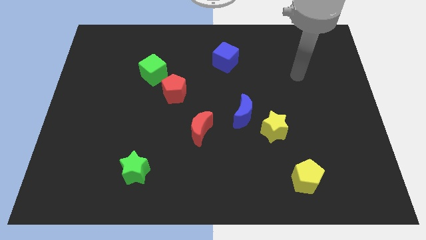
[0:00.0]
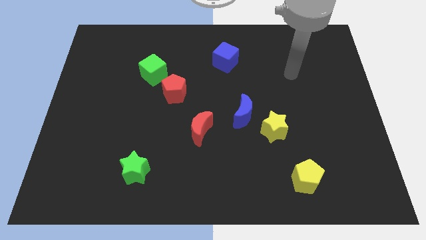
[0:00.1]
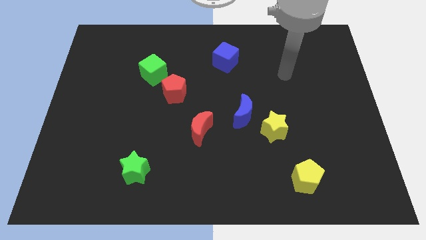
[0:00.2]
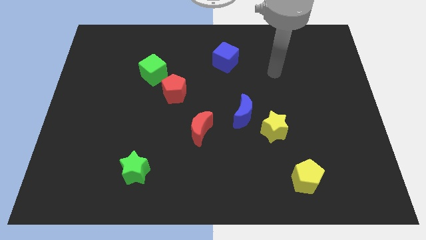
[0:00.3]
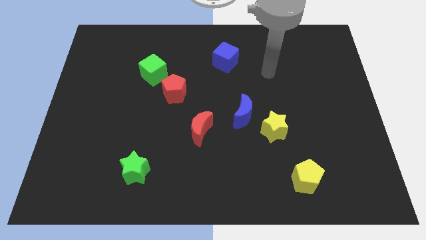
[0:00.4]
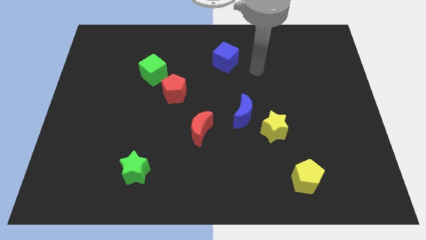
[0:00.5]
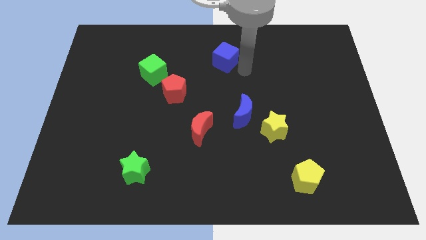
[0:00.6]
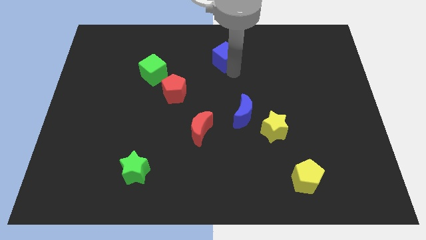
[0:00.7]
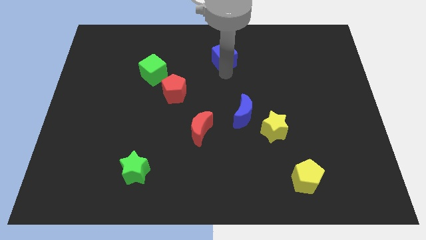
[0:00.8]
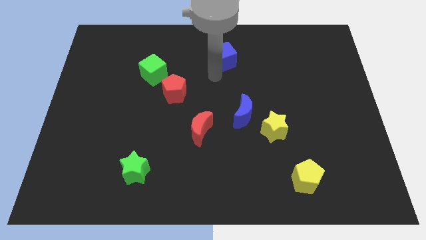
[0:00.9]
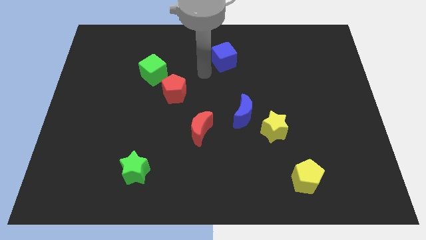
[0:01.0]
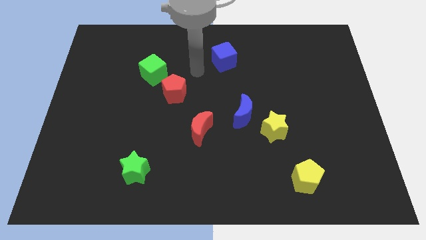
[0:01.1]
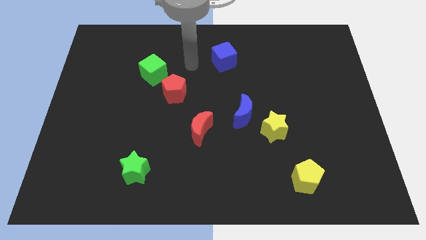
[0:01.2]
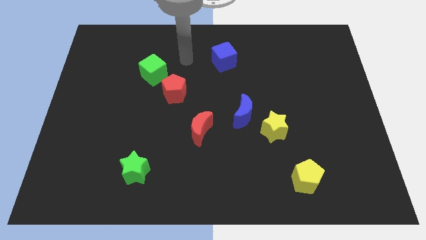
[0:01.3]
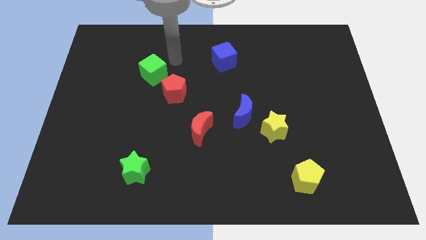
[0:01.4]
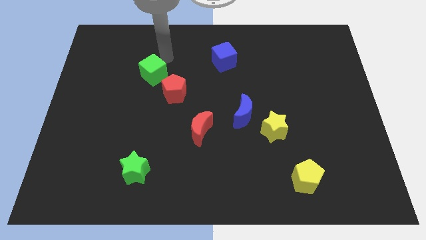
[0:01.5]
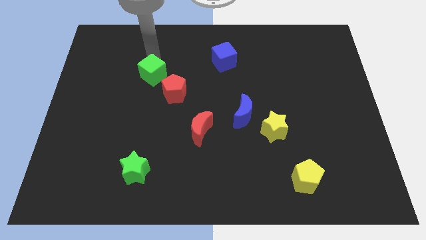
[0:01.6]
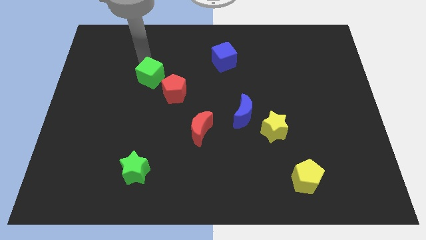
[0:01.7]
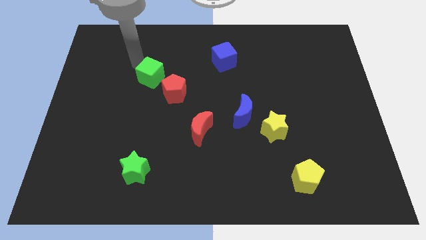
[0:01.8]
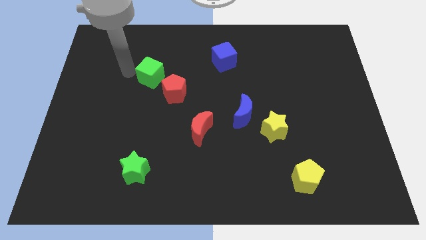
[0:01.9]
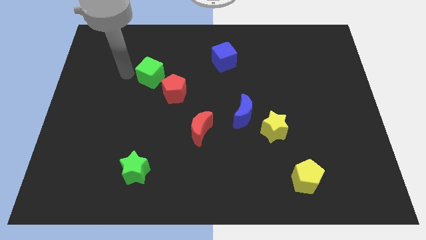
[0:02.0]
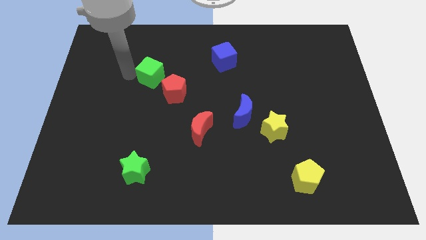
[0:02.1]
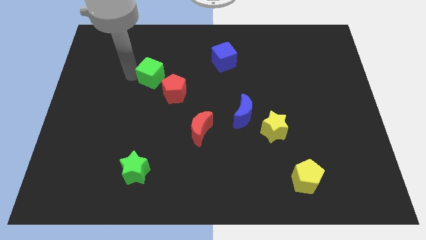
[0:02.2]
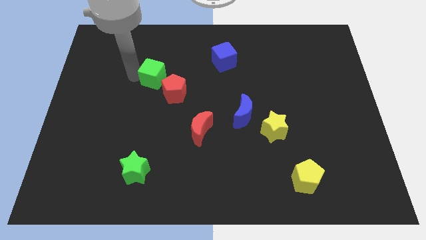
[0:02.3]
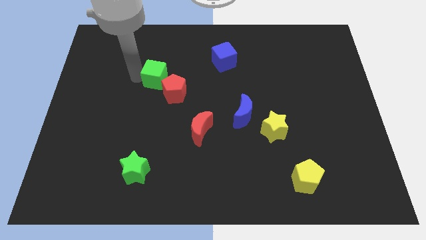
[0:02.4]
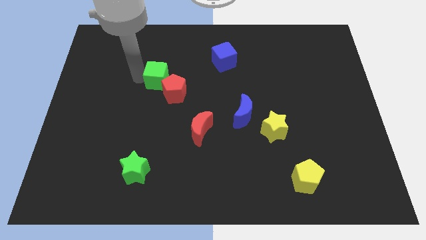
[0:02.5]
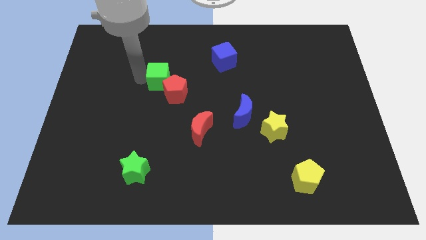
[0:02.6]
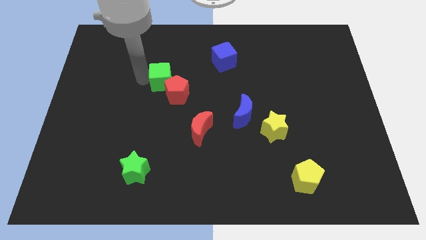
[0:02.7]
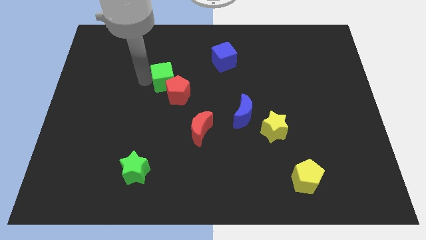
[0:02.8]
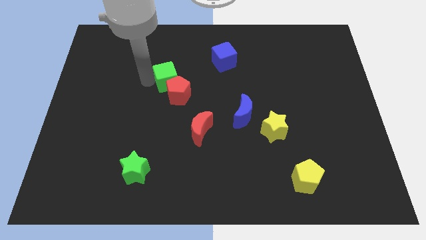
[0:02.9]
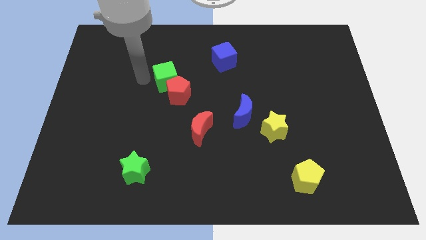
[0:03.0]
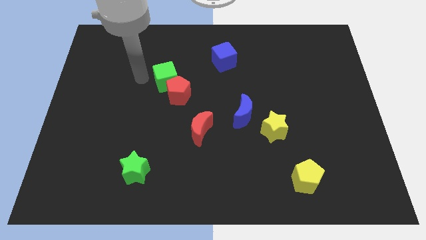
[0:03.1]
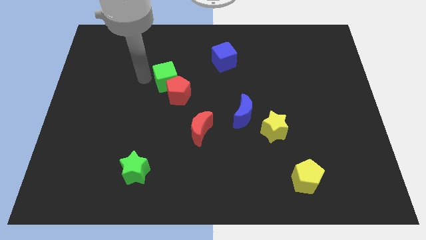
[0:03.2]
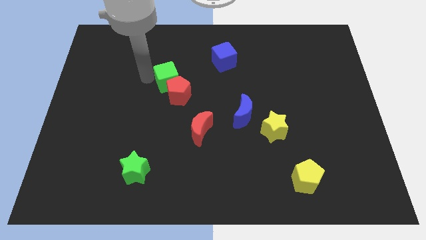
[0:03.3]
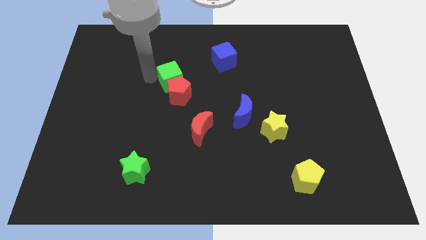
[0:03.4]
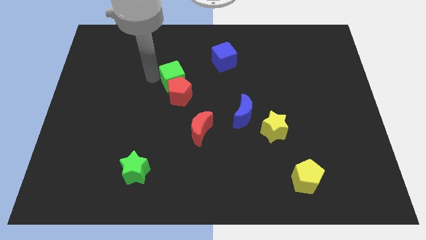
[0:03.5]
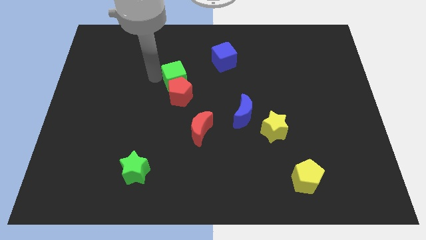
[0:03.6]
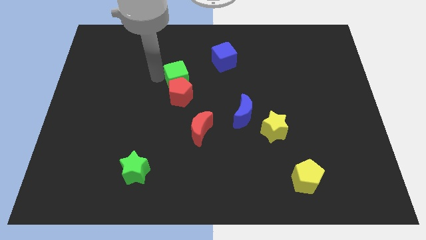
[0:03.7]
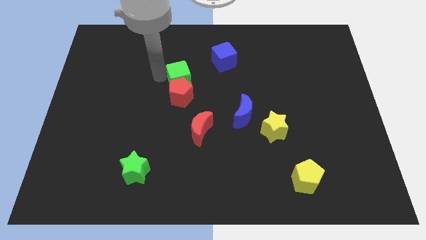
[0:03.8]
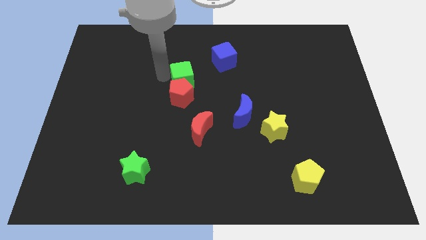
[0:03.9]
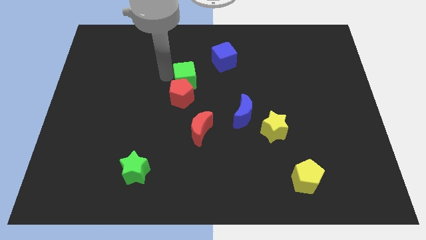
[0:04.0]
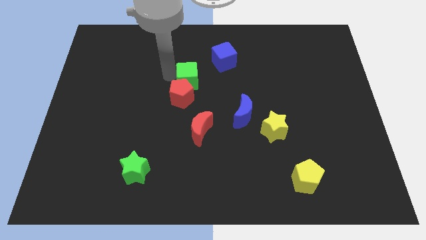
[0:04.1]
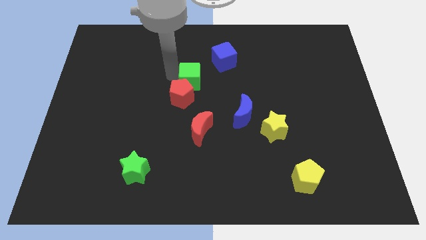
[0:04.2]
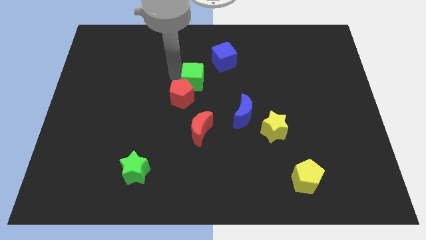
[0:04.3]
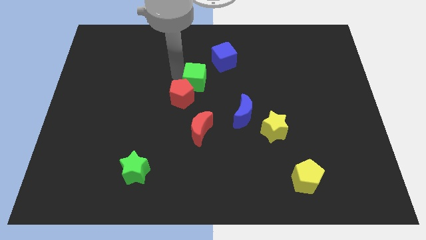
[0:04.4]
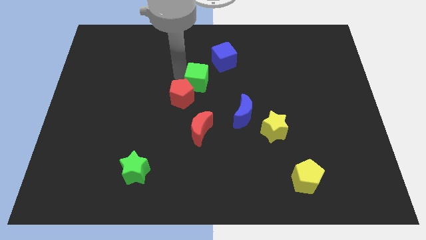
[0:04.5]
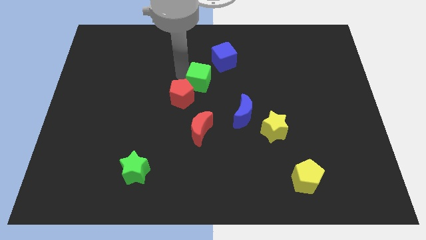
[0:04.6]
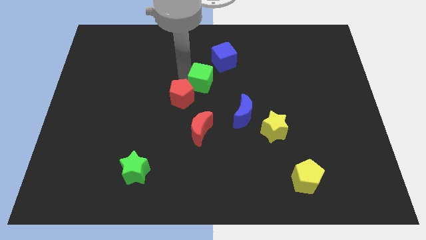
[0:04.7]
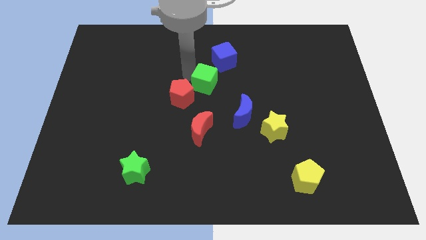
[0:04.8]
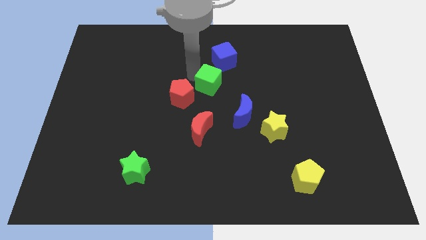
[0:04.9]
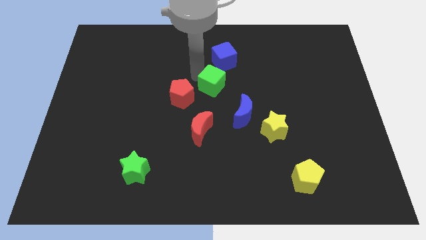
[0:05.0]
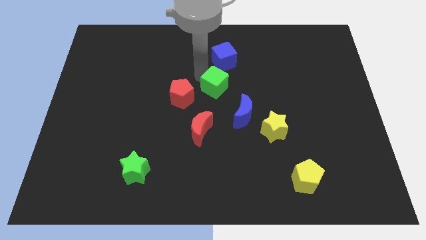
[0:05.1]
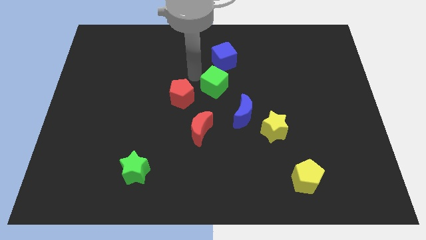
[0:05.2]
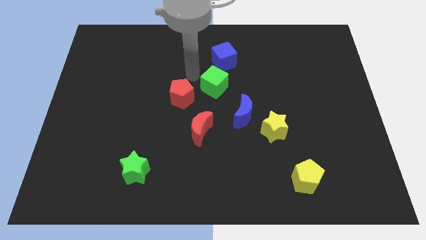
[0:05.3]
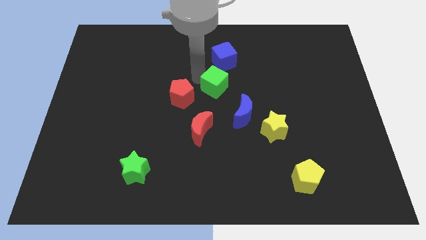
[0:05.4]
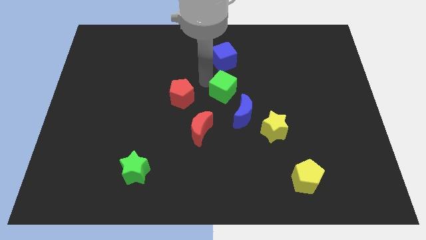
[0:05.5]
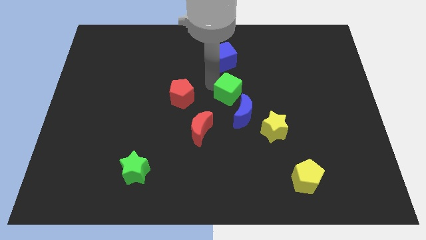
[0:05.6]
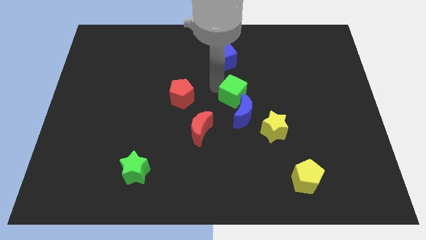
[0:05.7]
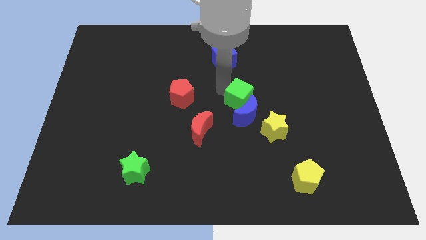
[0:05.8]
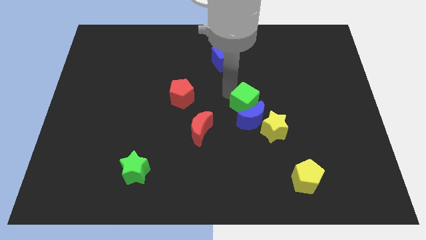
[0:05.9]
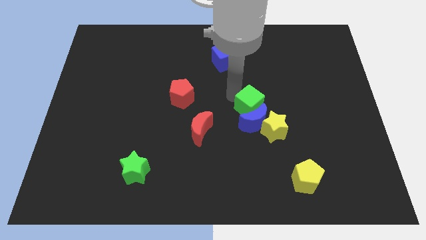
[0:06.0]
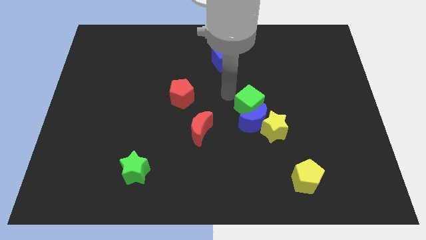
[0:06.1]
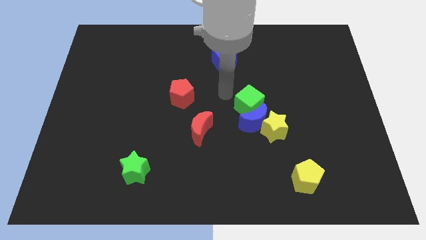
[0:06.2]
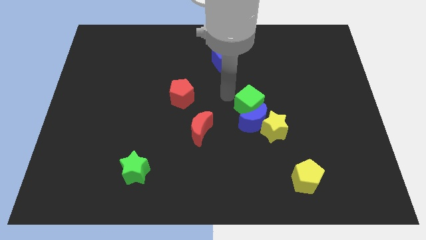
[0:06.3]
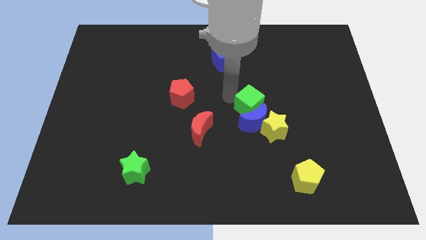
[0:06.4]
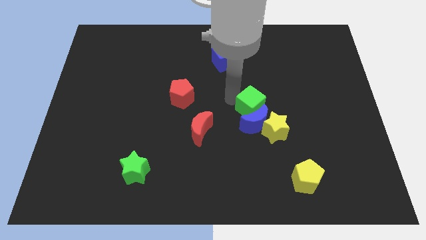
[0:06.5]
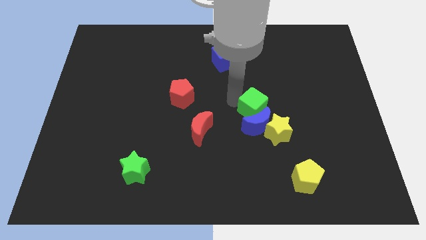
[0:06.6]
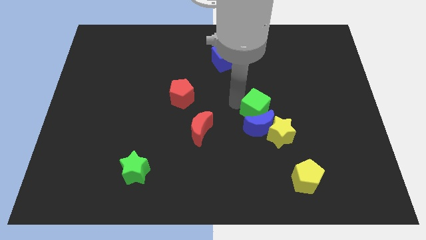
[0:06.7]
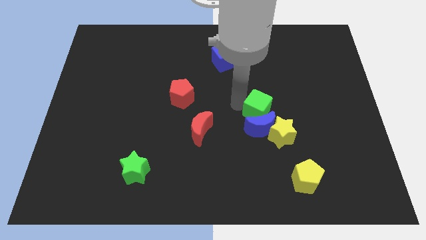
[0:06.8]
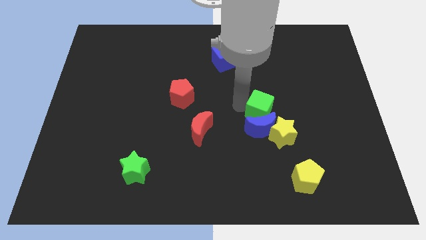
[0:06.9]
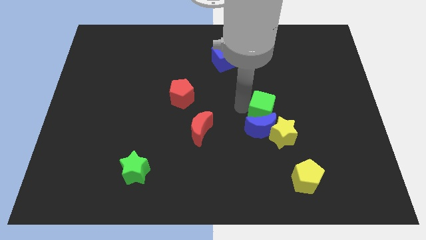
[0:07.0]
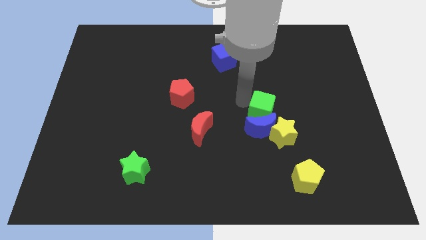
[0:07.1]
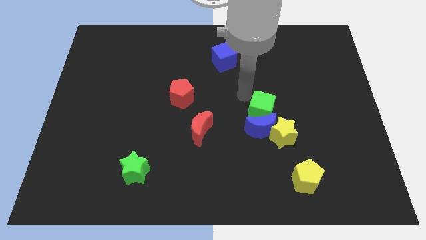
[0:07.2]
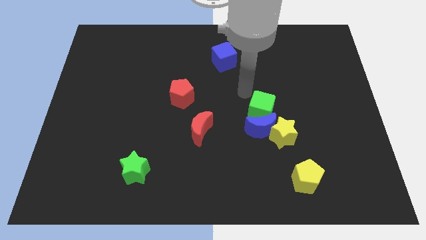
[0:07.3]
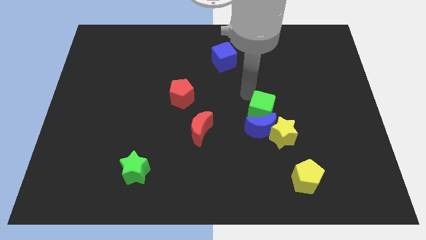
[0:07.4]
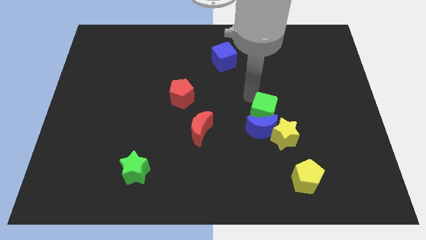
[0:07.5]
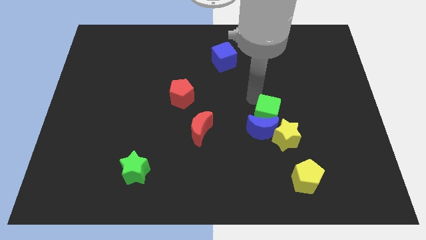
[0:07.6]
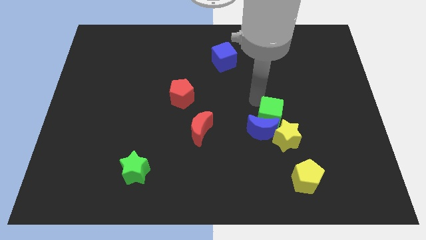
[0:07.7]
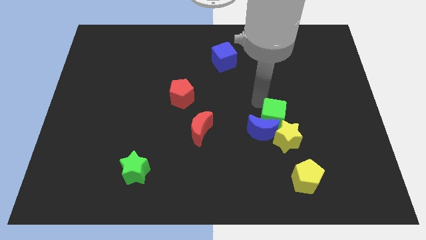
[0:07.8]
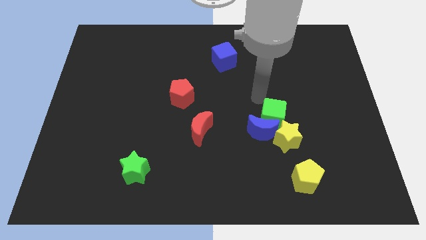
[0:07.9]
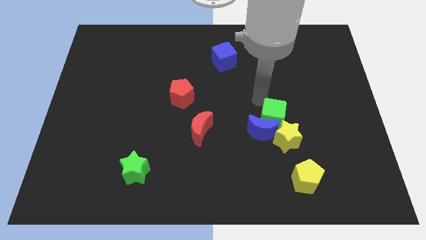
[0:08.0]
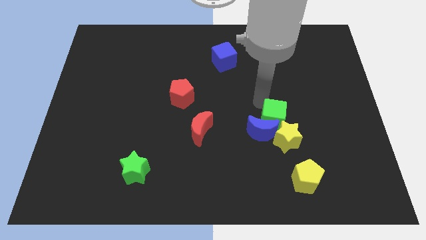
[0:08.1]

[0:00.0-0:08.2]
slide the green cube towards the yellow star
